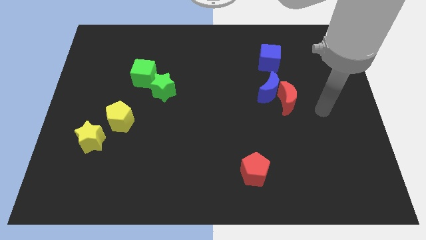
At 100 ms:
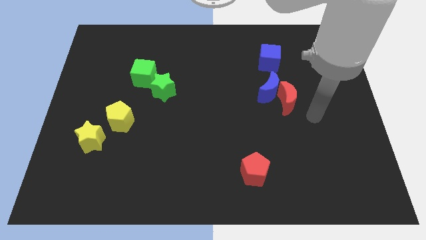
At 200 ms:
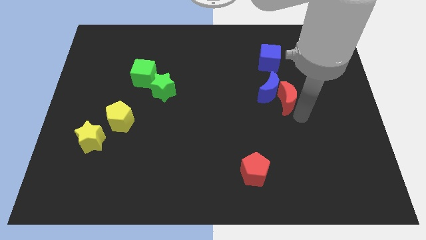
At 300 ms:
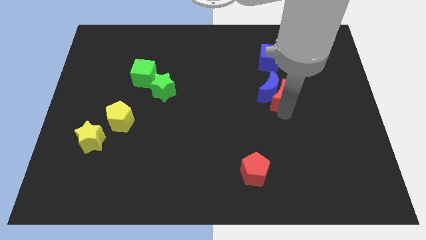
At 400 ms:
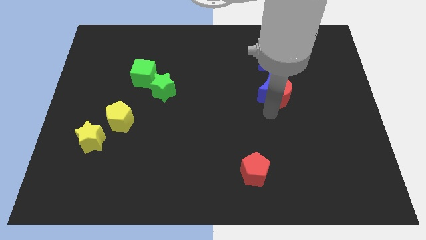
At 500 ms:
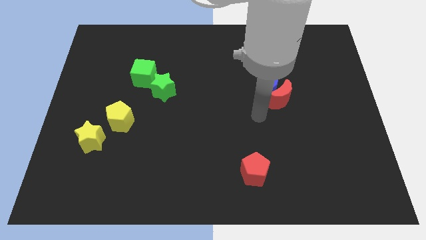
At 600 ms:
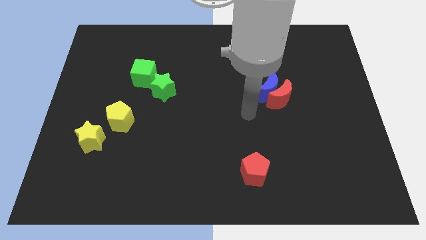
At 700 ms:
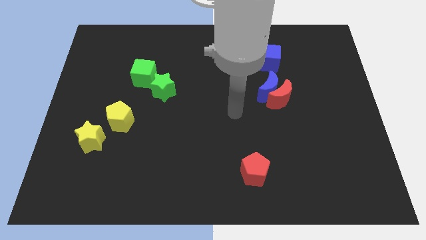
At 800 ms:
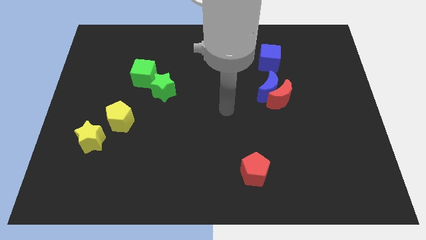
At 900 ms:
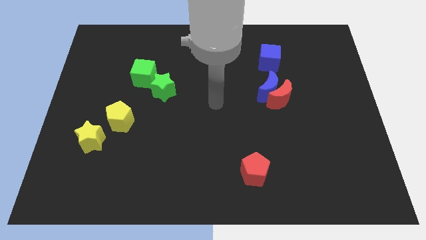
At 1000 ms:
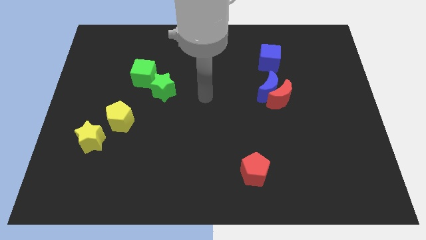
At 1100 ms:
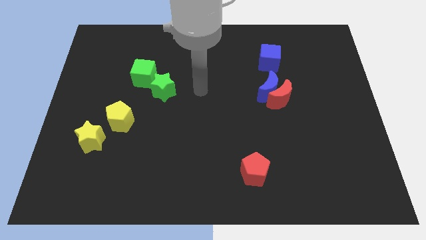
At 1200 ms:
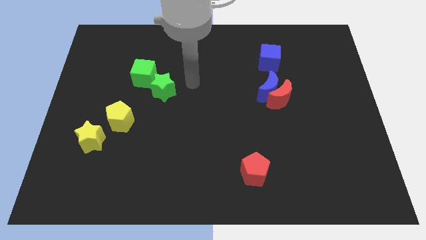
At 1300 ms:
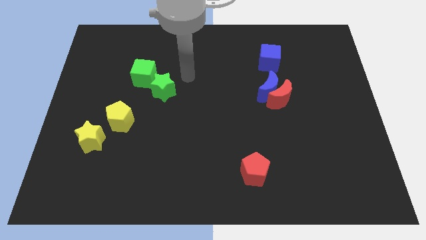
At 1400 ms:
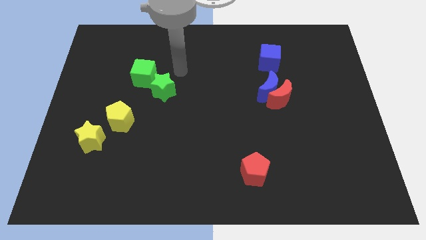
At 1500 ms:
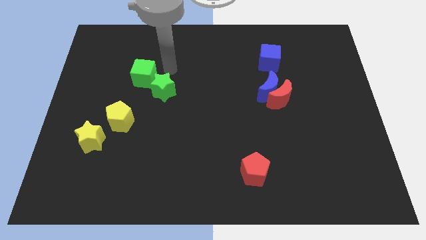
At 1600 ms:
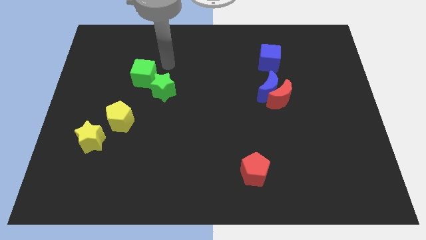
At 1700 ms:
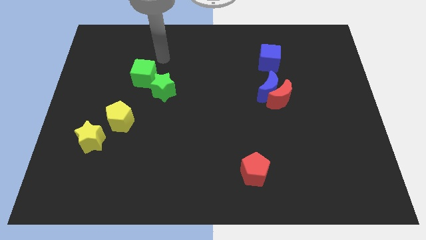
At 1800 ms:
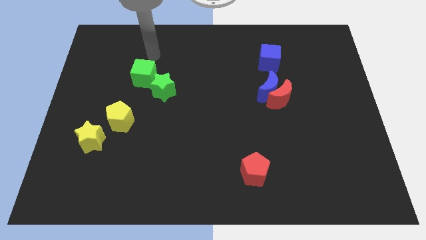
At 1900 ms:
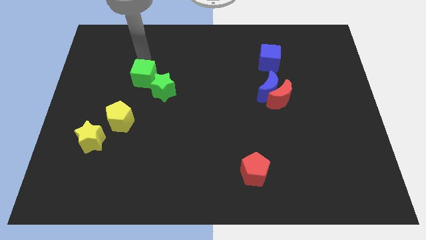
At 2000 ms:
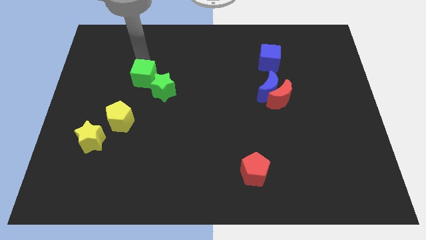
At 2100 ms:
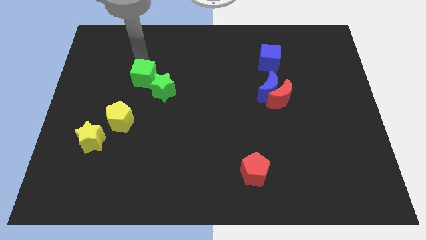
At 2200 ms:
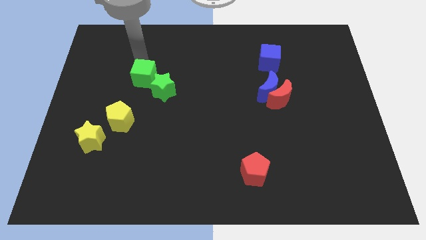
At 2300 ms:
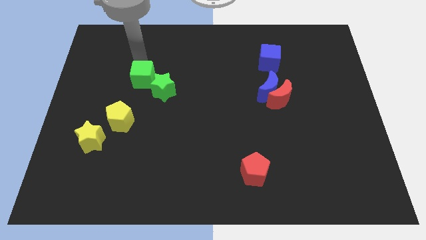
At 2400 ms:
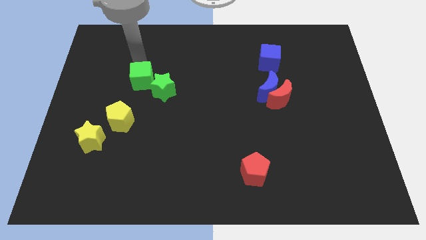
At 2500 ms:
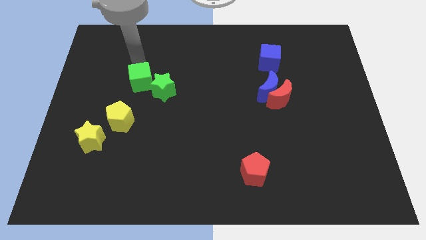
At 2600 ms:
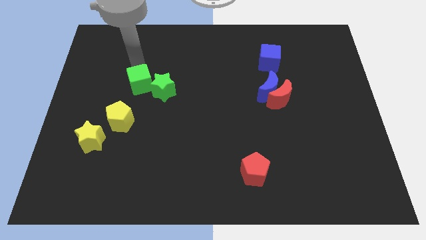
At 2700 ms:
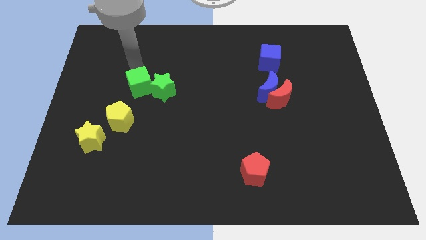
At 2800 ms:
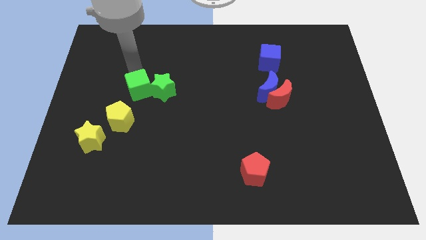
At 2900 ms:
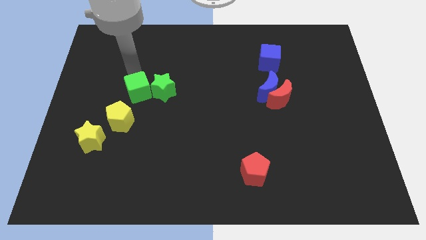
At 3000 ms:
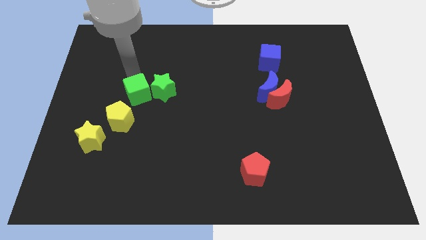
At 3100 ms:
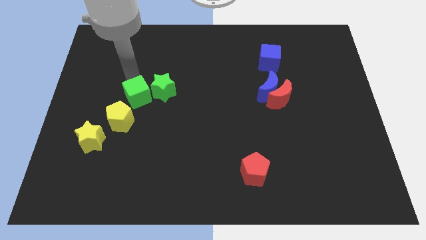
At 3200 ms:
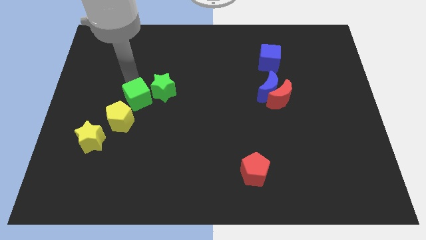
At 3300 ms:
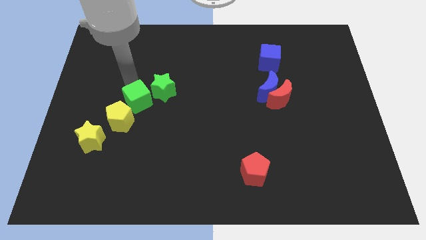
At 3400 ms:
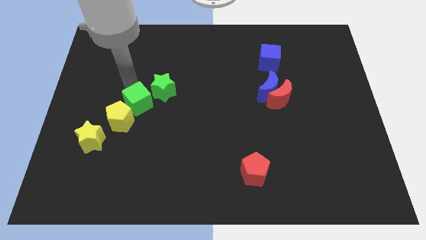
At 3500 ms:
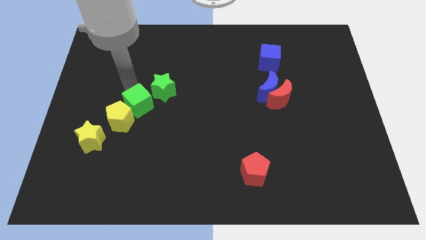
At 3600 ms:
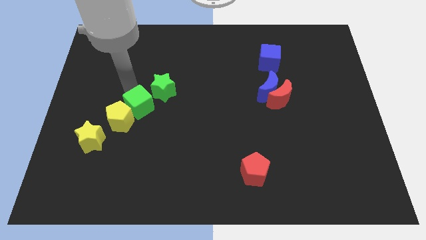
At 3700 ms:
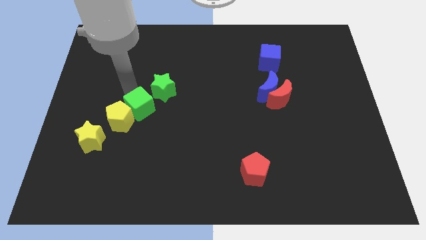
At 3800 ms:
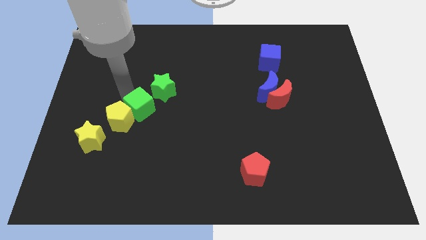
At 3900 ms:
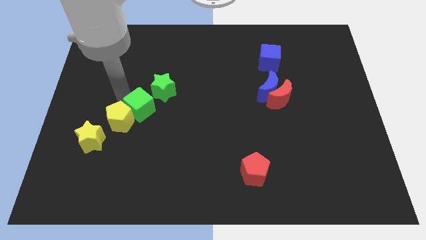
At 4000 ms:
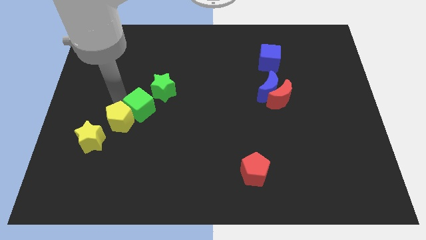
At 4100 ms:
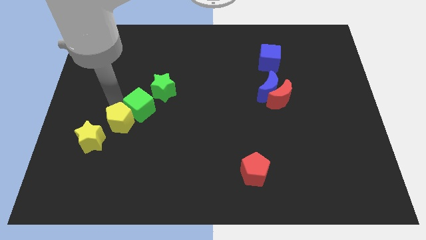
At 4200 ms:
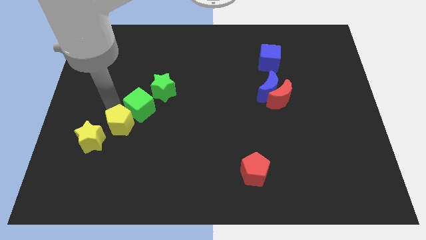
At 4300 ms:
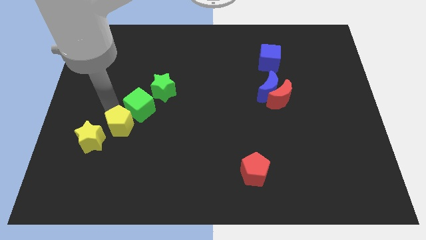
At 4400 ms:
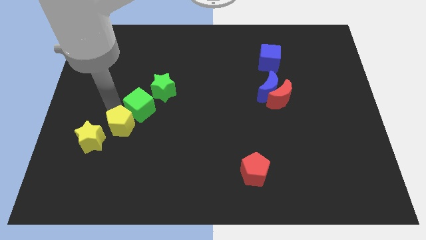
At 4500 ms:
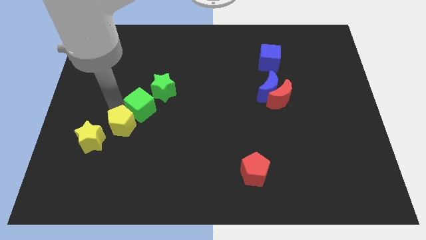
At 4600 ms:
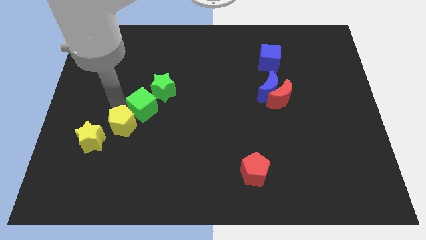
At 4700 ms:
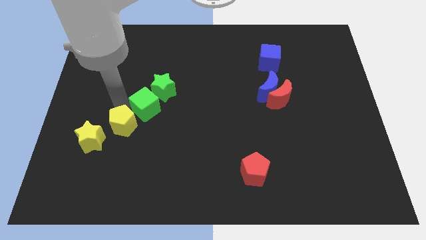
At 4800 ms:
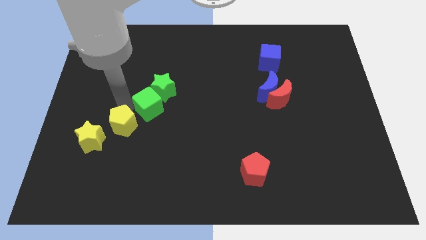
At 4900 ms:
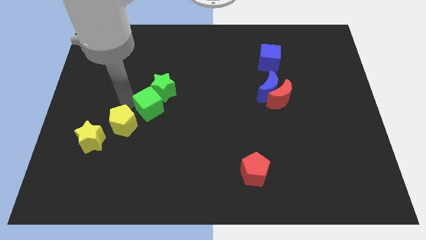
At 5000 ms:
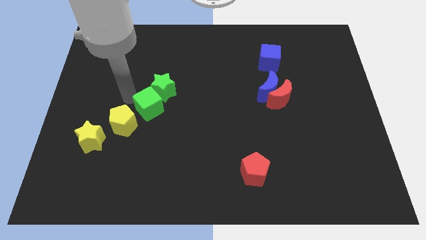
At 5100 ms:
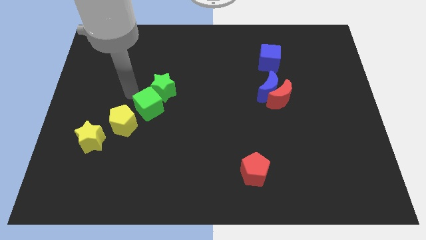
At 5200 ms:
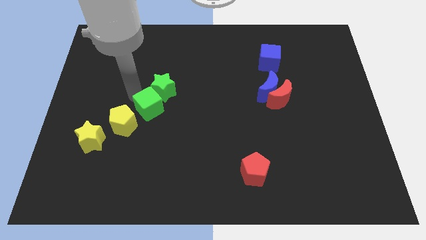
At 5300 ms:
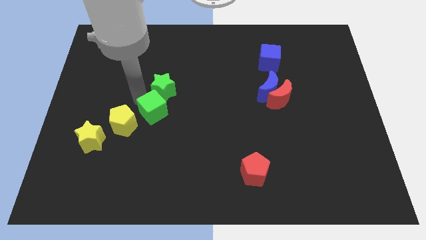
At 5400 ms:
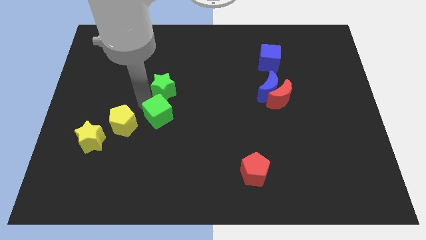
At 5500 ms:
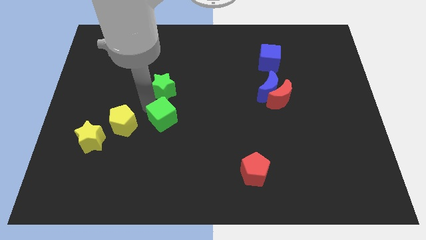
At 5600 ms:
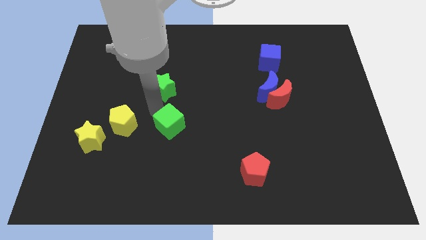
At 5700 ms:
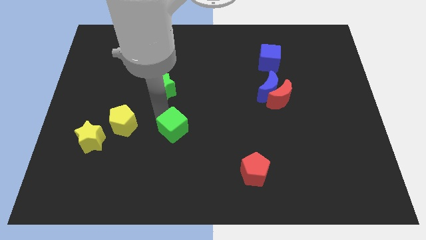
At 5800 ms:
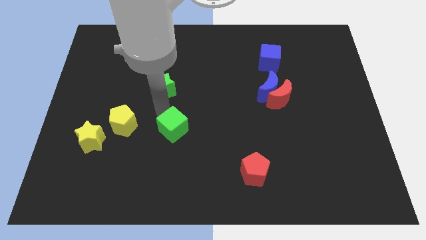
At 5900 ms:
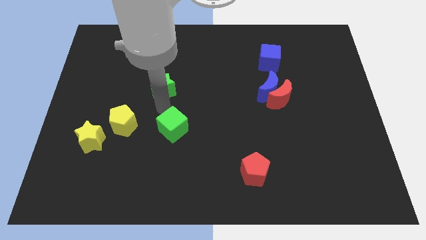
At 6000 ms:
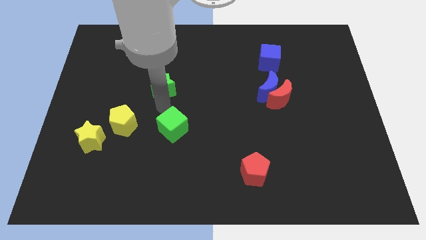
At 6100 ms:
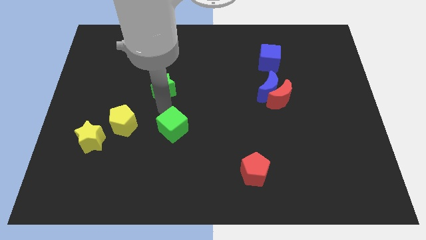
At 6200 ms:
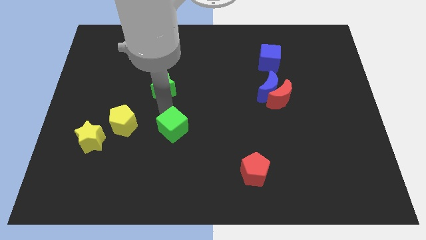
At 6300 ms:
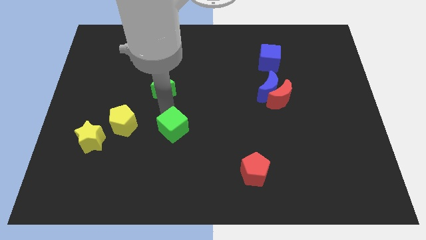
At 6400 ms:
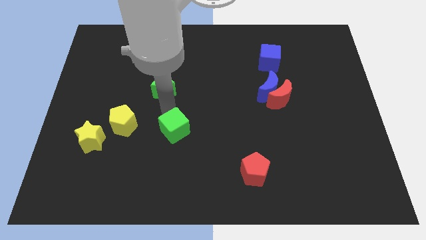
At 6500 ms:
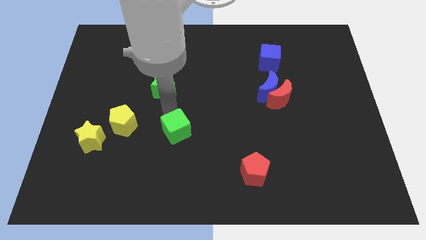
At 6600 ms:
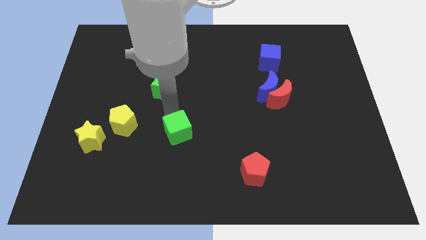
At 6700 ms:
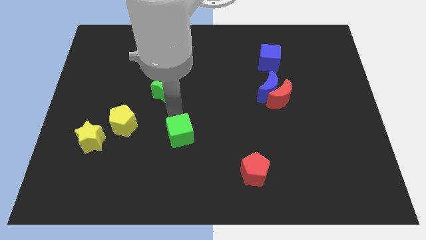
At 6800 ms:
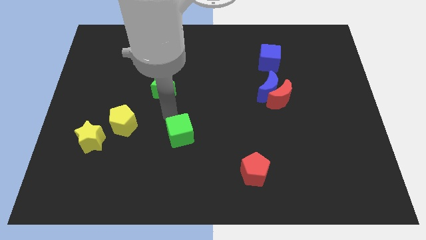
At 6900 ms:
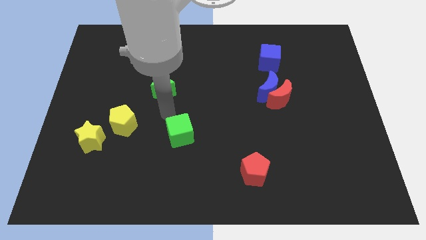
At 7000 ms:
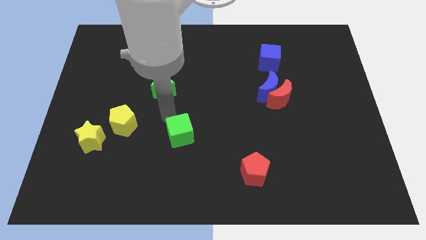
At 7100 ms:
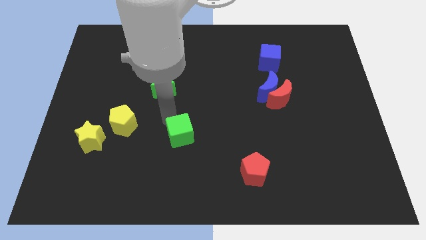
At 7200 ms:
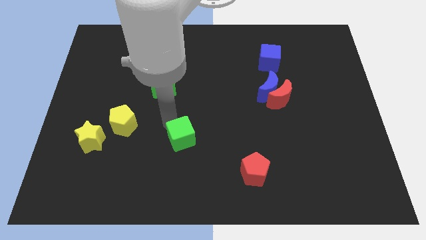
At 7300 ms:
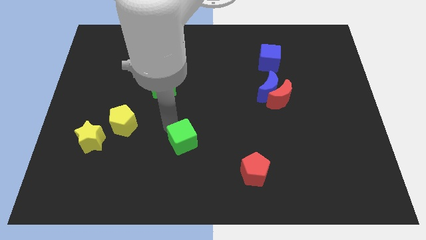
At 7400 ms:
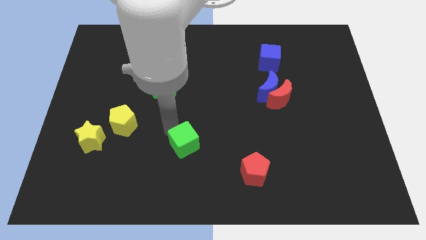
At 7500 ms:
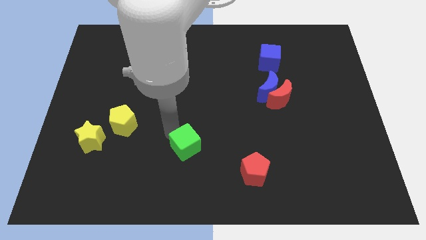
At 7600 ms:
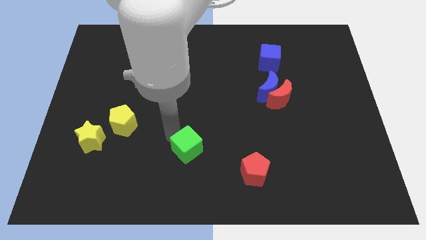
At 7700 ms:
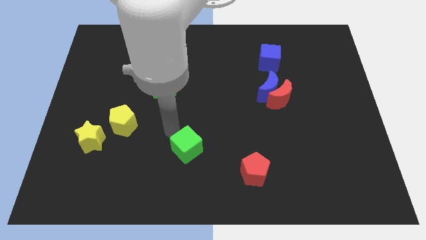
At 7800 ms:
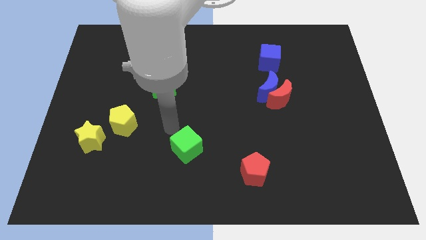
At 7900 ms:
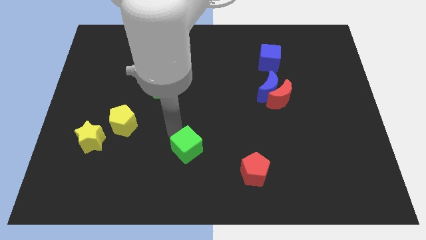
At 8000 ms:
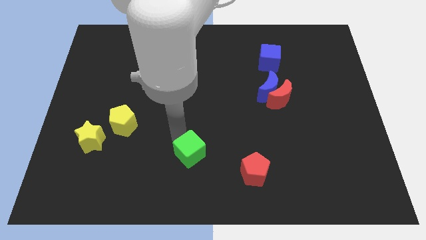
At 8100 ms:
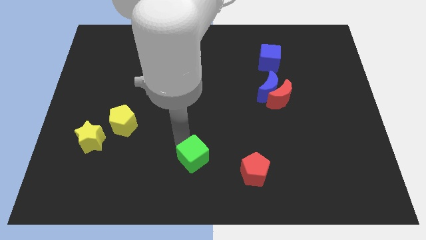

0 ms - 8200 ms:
move the green cube to the bottom
